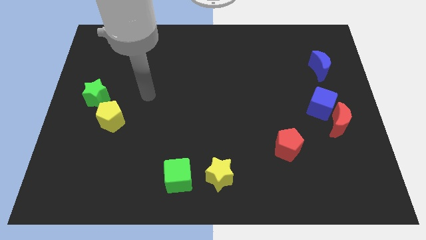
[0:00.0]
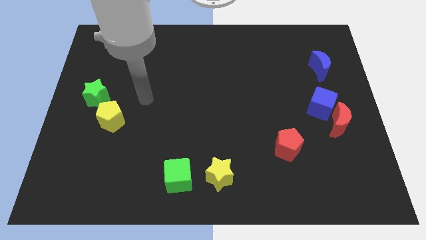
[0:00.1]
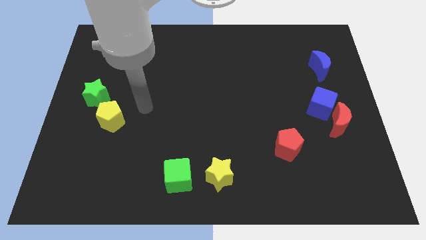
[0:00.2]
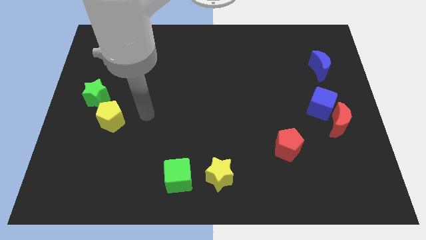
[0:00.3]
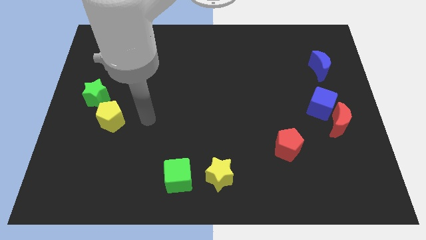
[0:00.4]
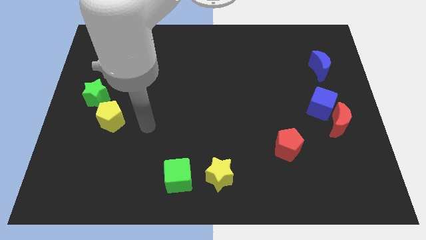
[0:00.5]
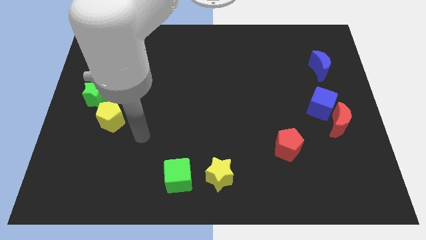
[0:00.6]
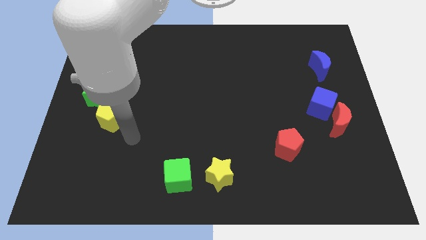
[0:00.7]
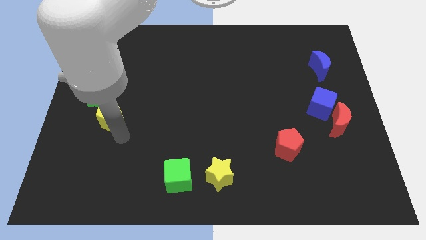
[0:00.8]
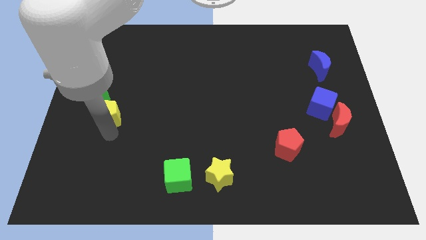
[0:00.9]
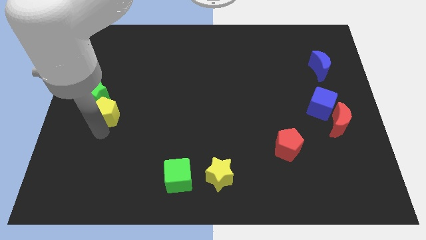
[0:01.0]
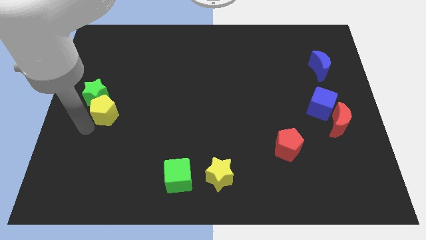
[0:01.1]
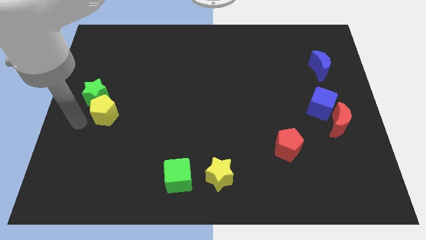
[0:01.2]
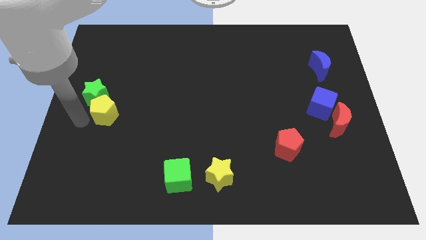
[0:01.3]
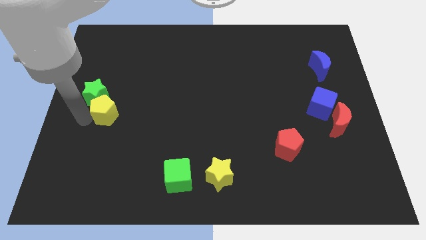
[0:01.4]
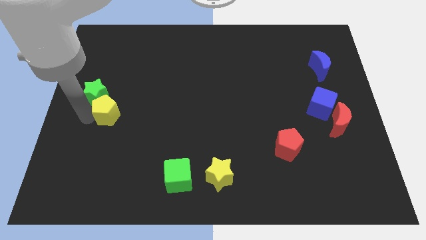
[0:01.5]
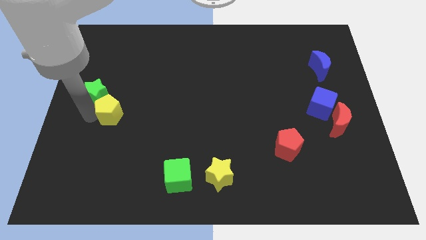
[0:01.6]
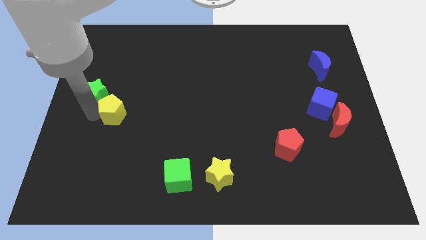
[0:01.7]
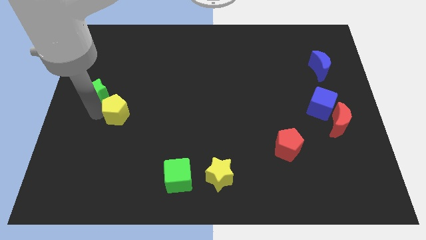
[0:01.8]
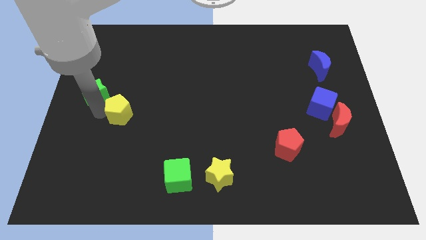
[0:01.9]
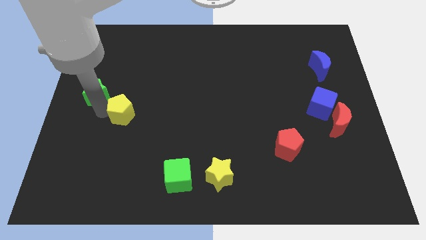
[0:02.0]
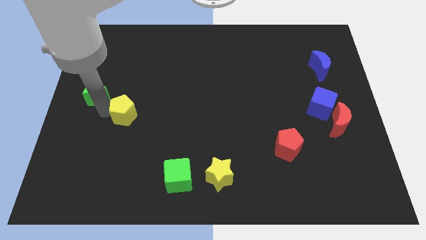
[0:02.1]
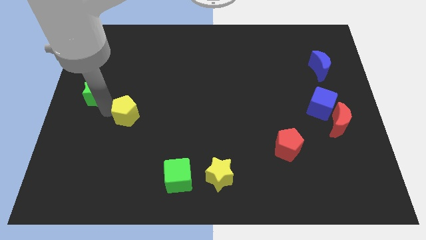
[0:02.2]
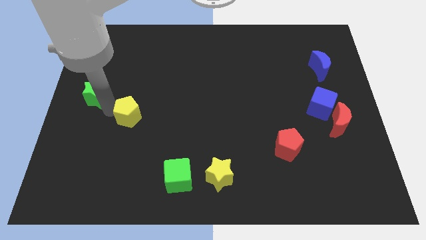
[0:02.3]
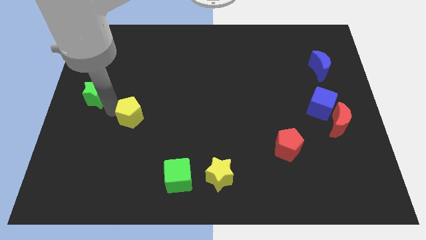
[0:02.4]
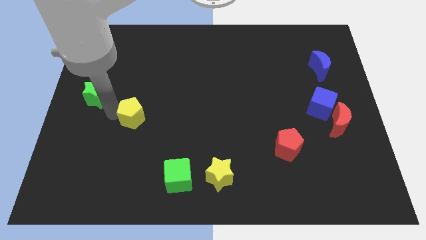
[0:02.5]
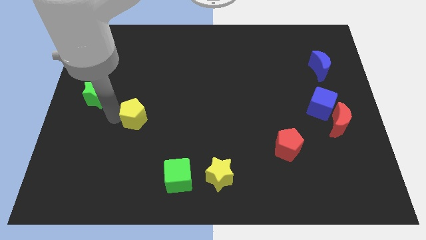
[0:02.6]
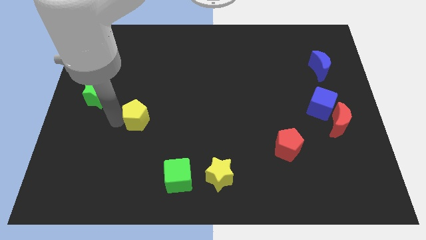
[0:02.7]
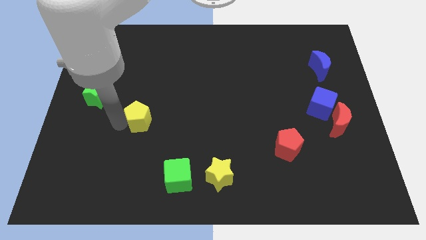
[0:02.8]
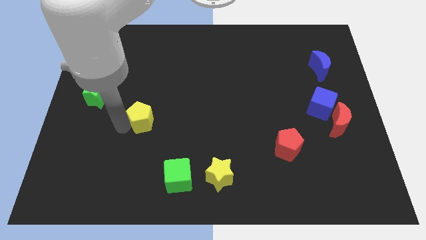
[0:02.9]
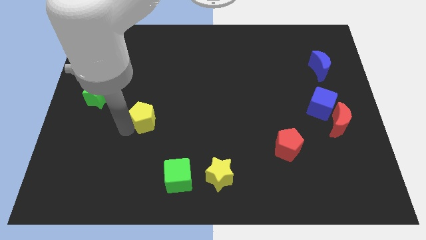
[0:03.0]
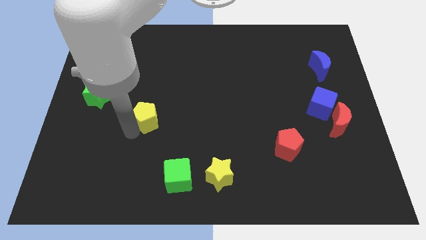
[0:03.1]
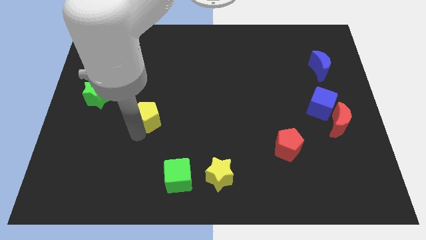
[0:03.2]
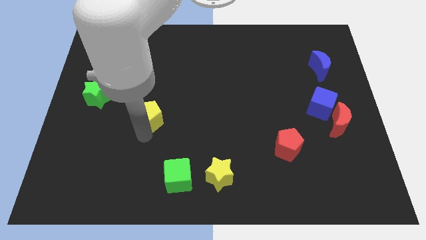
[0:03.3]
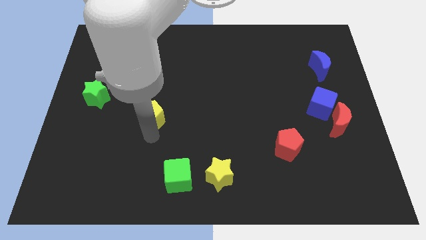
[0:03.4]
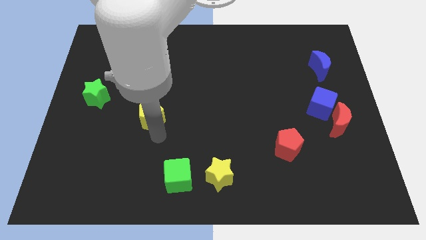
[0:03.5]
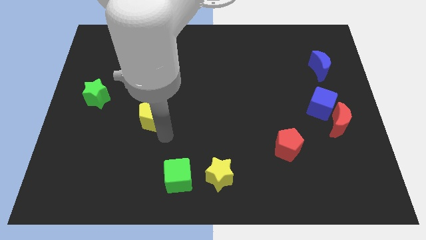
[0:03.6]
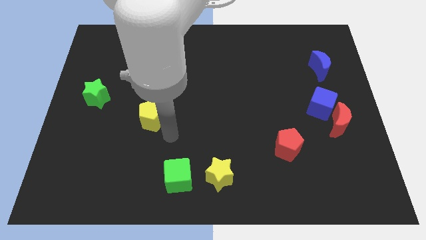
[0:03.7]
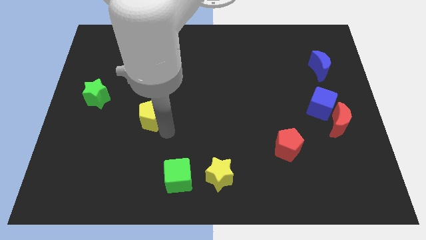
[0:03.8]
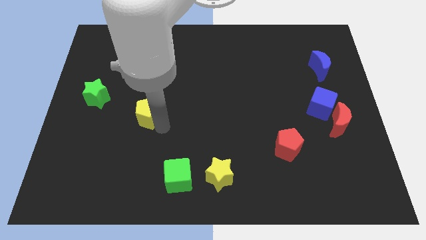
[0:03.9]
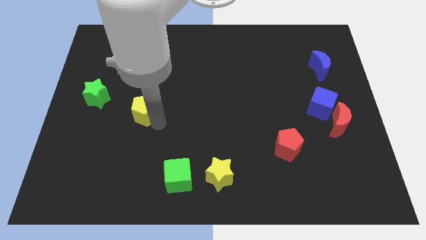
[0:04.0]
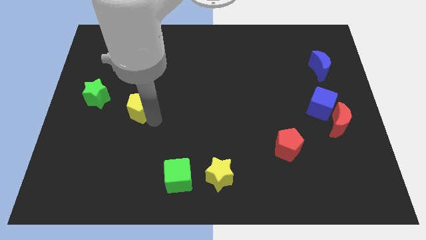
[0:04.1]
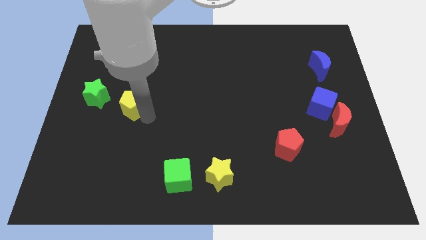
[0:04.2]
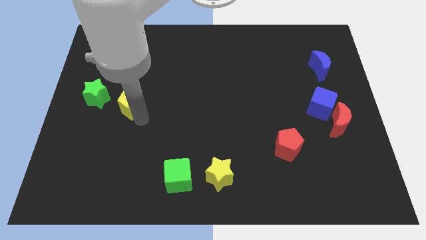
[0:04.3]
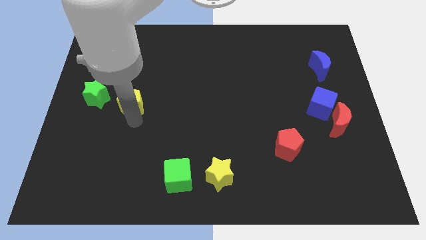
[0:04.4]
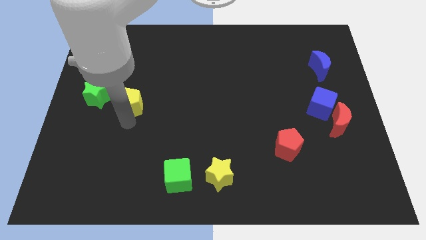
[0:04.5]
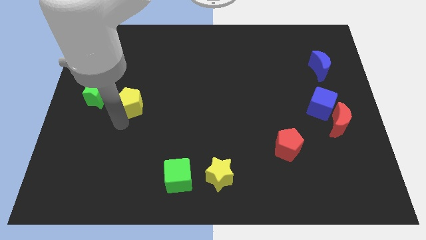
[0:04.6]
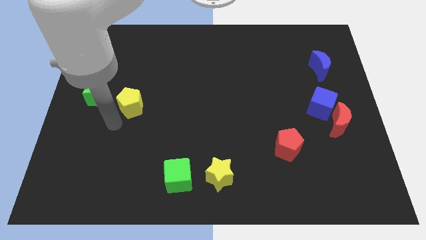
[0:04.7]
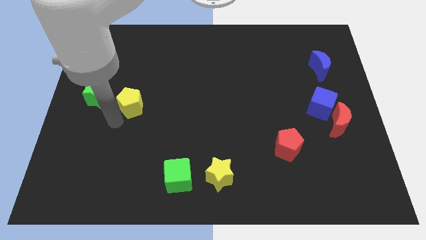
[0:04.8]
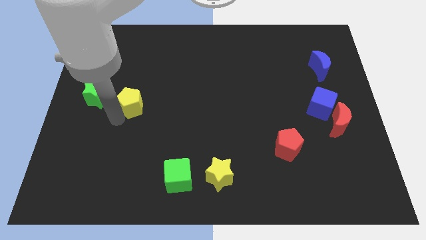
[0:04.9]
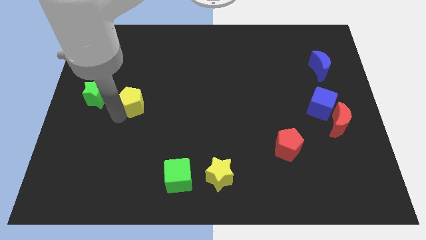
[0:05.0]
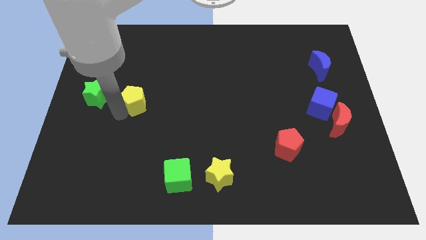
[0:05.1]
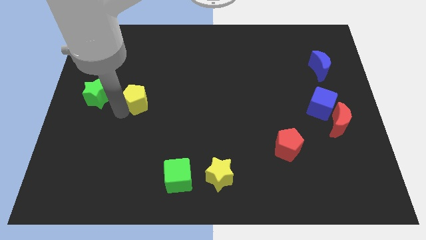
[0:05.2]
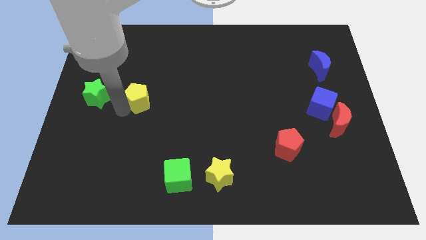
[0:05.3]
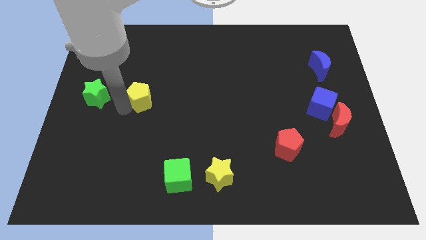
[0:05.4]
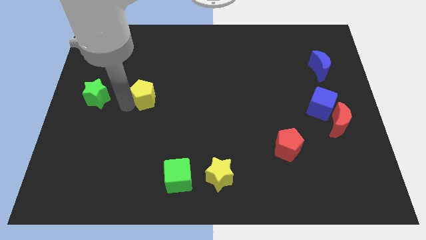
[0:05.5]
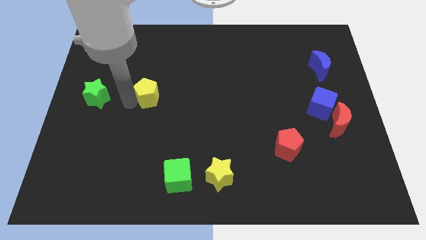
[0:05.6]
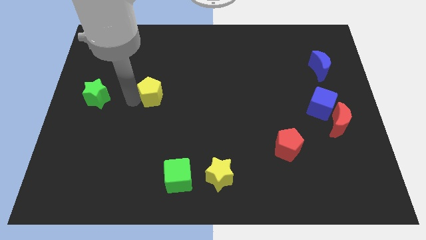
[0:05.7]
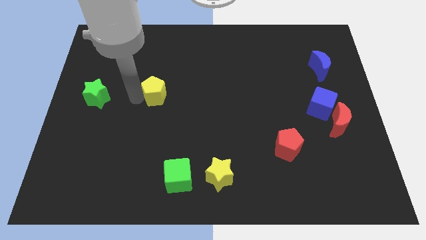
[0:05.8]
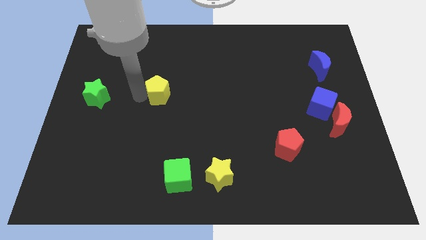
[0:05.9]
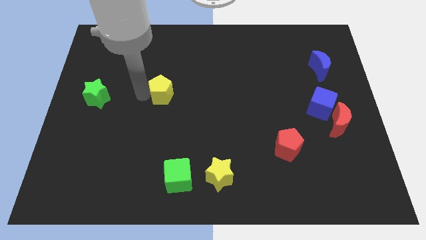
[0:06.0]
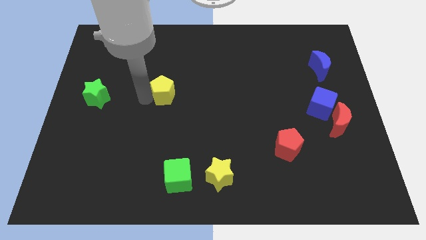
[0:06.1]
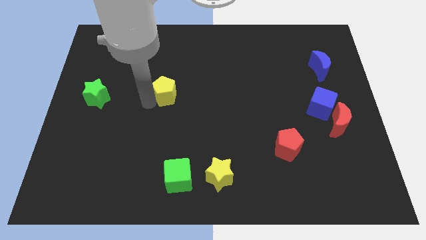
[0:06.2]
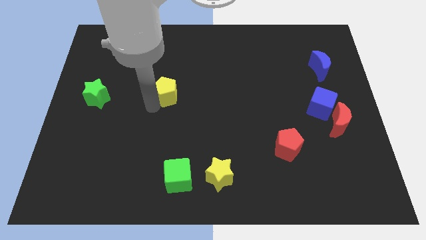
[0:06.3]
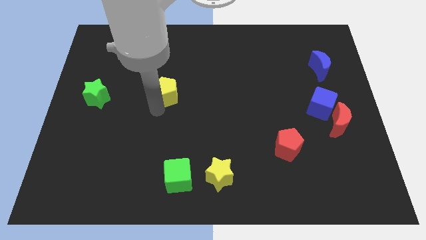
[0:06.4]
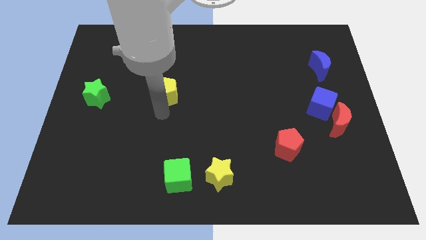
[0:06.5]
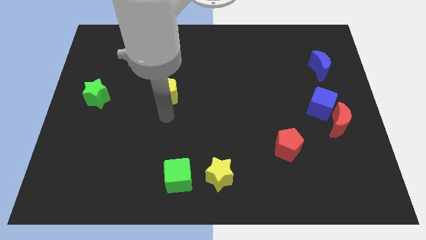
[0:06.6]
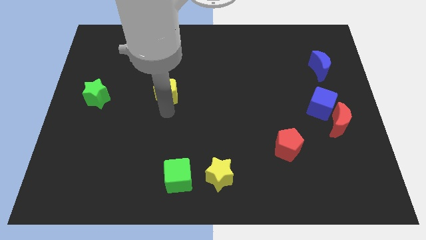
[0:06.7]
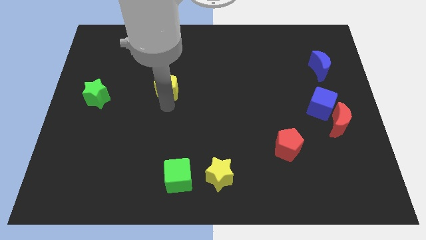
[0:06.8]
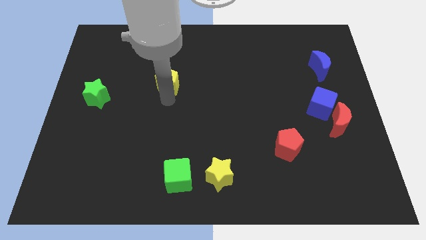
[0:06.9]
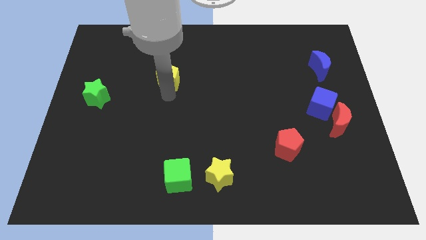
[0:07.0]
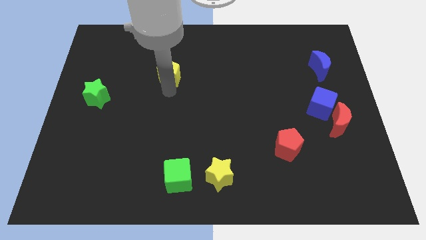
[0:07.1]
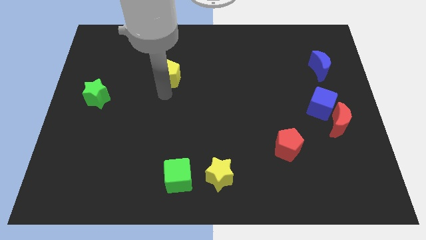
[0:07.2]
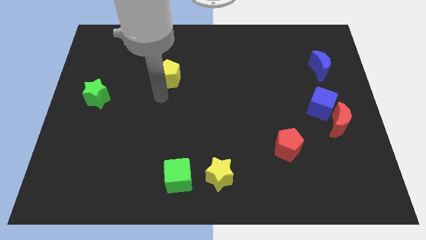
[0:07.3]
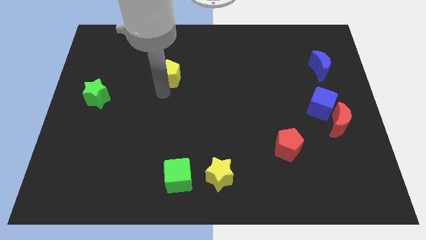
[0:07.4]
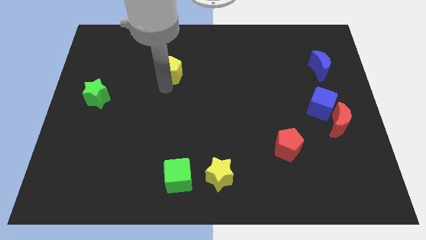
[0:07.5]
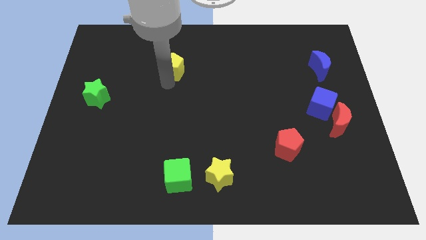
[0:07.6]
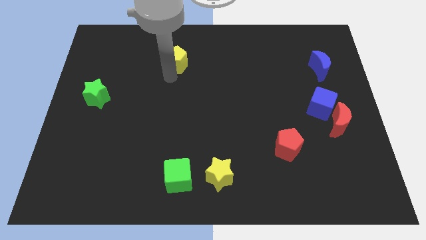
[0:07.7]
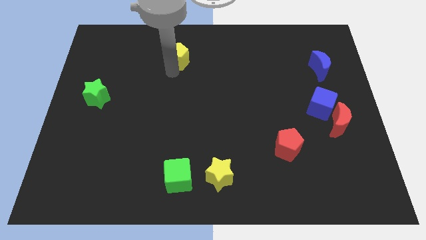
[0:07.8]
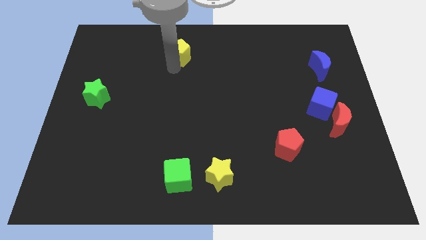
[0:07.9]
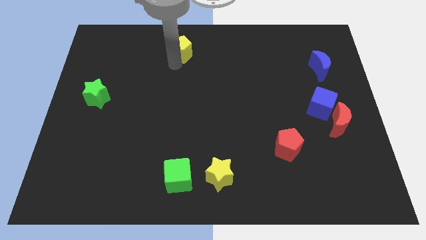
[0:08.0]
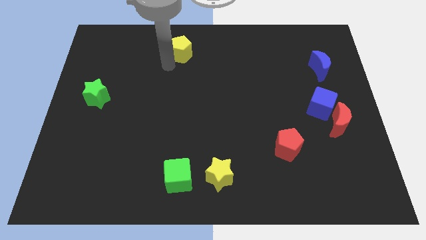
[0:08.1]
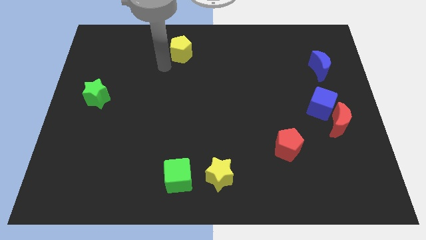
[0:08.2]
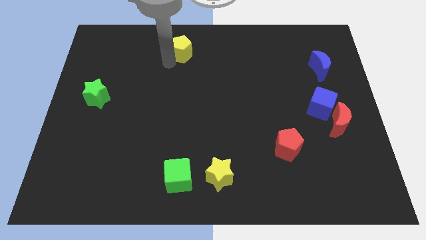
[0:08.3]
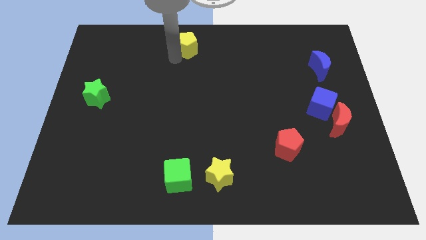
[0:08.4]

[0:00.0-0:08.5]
push the yellow pentagon to the towards your base
